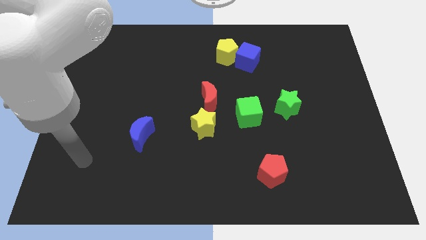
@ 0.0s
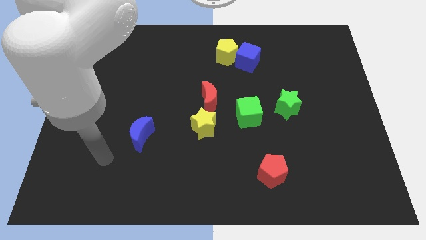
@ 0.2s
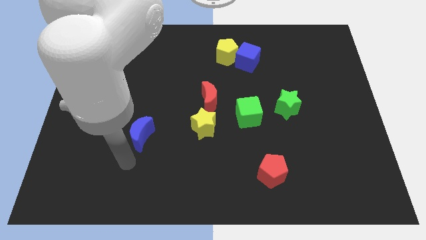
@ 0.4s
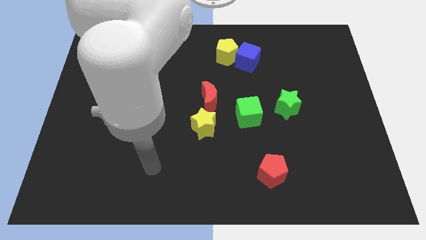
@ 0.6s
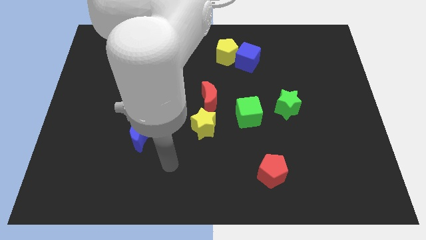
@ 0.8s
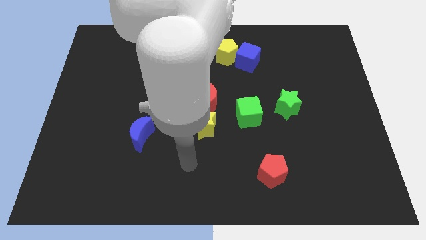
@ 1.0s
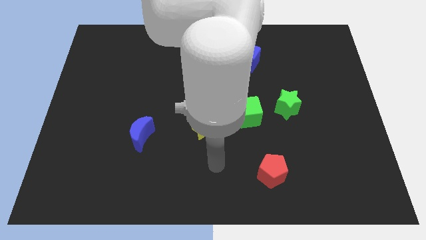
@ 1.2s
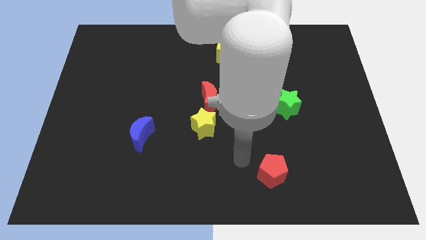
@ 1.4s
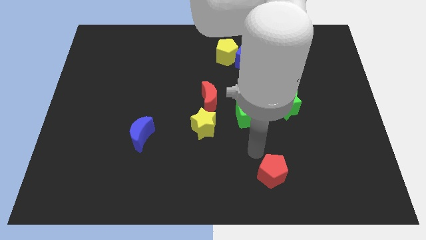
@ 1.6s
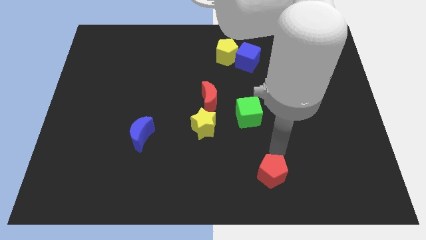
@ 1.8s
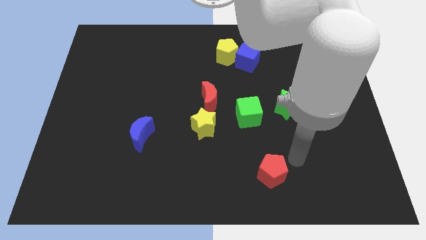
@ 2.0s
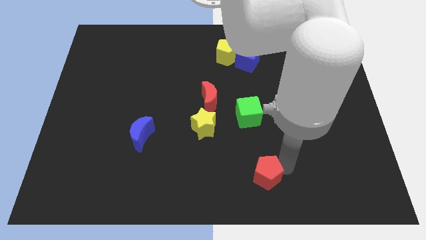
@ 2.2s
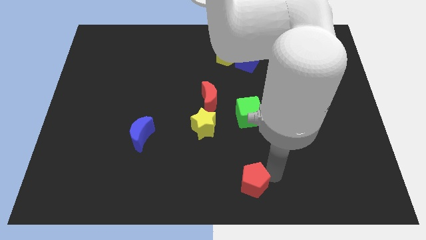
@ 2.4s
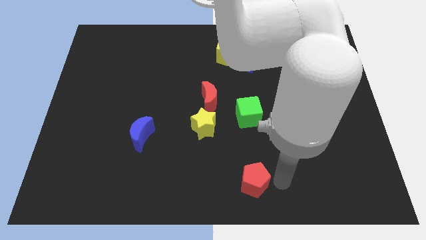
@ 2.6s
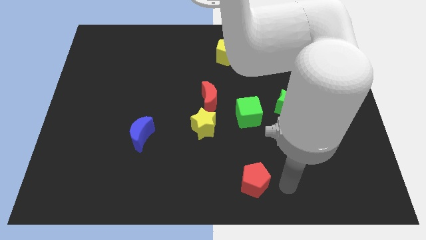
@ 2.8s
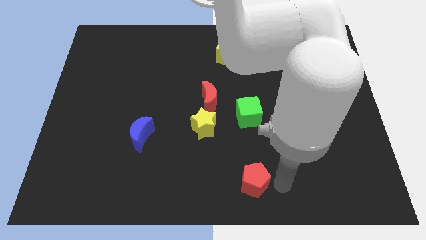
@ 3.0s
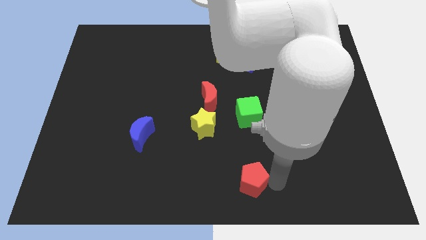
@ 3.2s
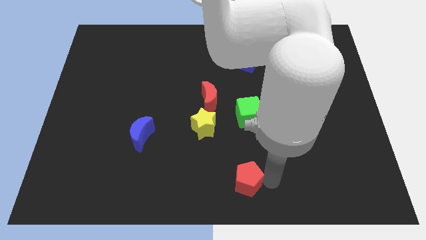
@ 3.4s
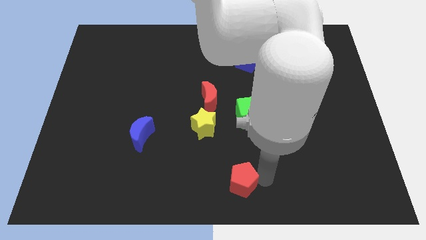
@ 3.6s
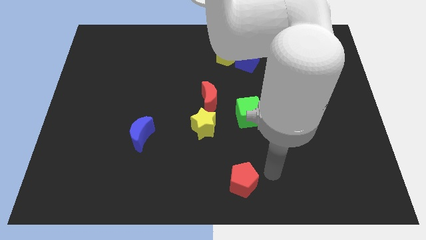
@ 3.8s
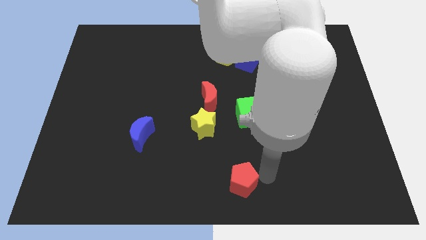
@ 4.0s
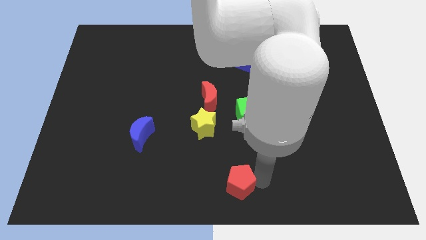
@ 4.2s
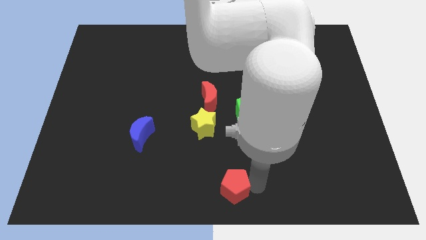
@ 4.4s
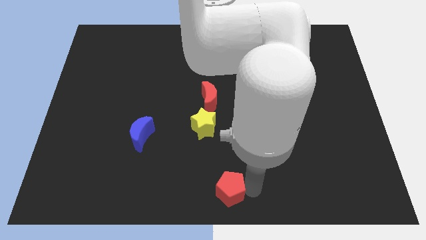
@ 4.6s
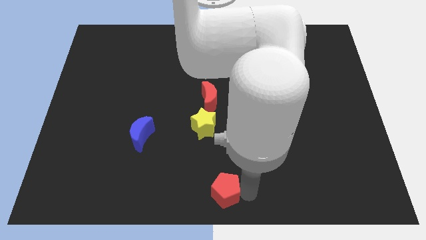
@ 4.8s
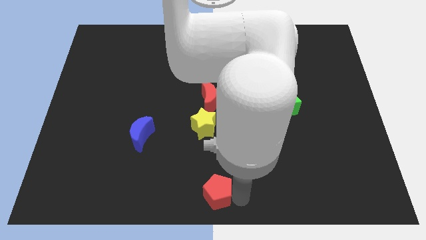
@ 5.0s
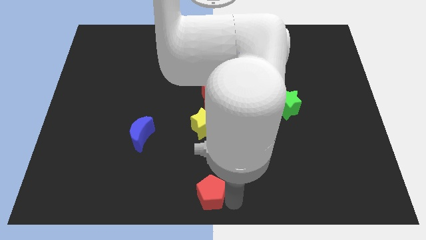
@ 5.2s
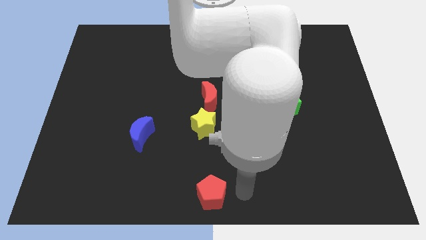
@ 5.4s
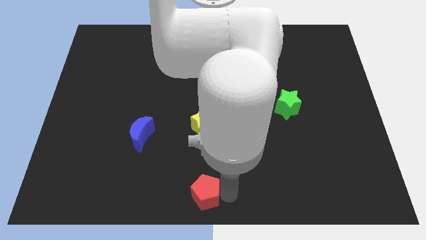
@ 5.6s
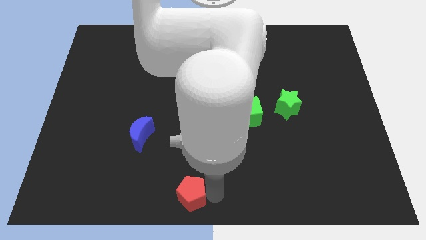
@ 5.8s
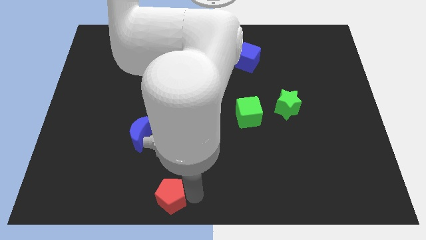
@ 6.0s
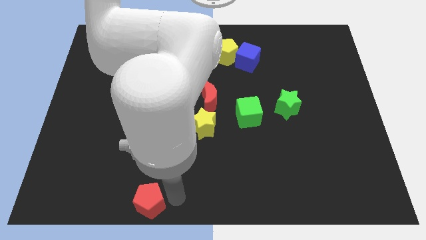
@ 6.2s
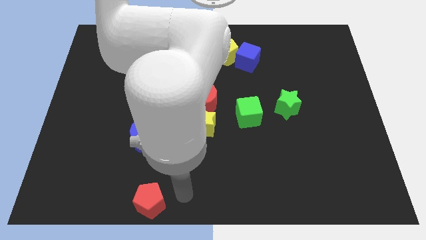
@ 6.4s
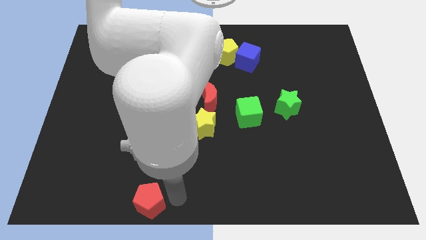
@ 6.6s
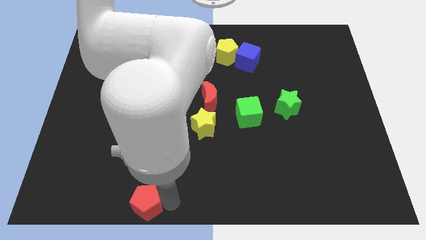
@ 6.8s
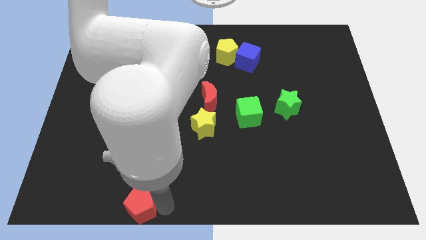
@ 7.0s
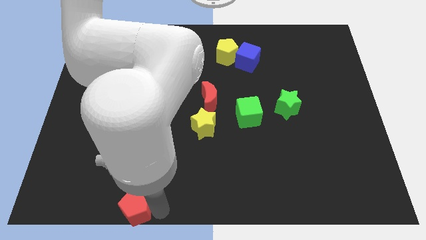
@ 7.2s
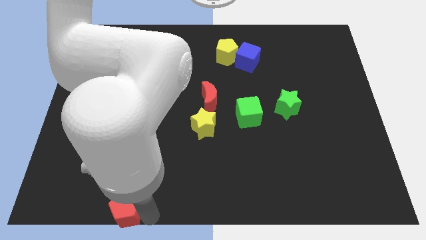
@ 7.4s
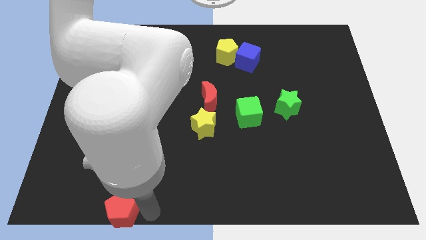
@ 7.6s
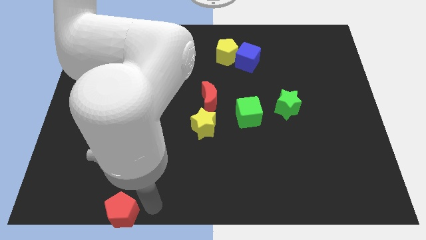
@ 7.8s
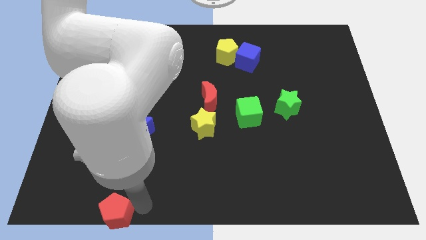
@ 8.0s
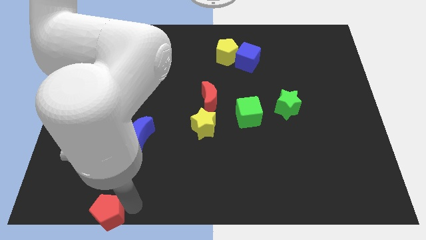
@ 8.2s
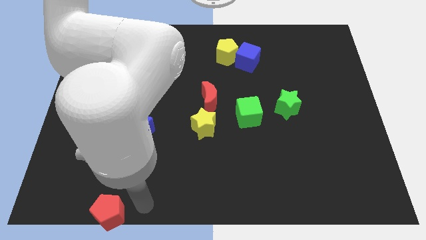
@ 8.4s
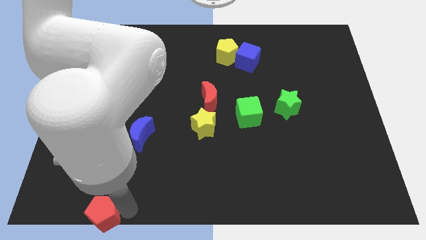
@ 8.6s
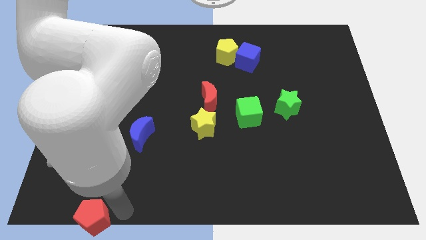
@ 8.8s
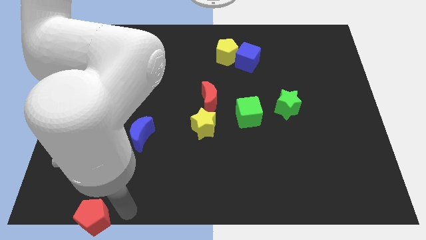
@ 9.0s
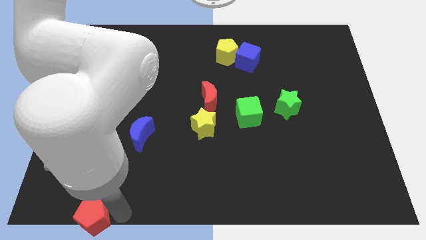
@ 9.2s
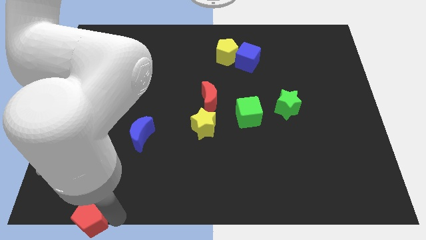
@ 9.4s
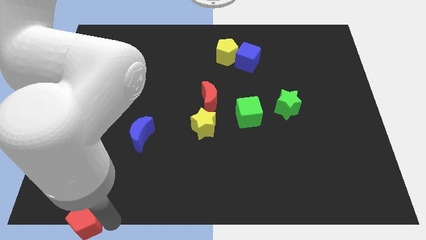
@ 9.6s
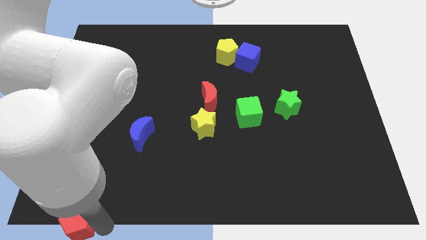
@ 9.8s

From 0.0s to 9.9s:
slide the red pentagon to the bottom left of the board

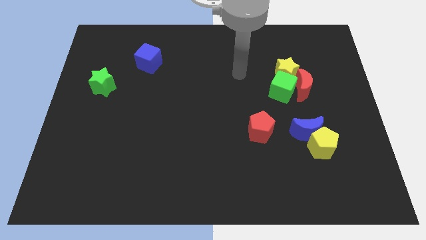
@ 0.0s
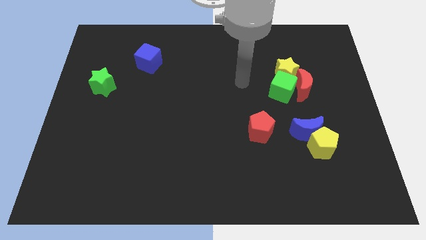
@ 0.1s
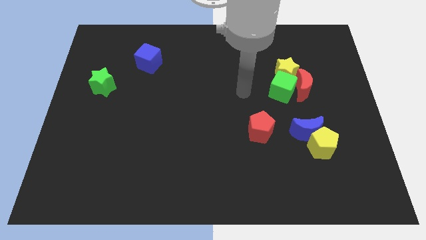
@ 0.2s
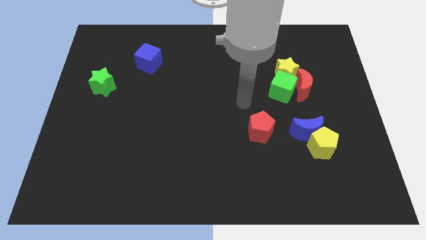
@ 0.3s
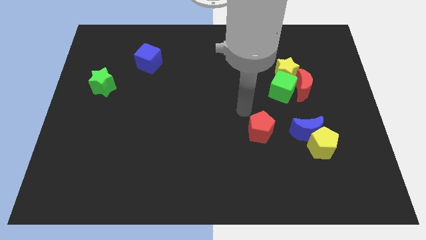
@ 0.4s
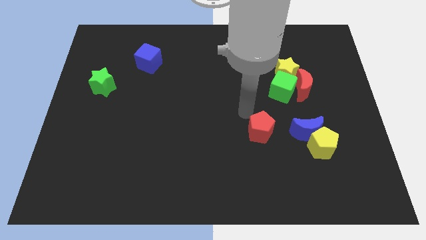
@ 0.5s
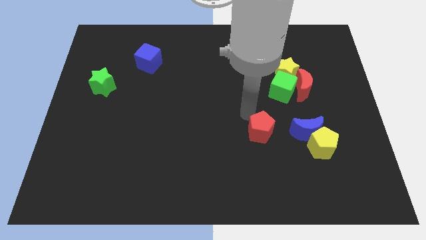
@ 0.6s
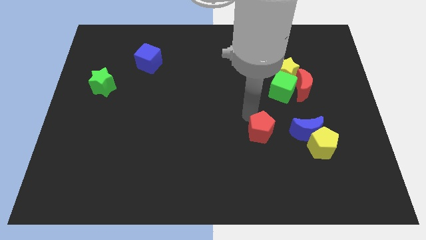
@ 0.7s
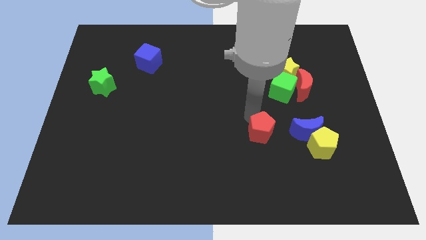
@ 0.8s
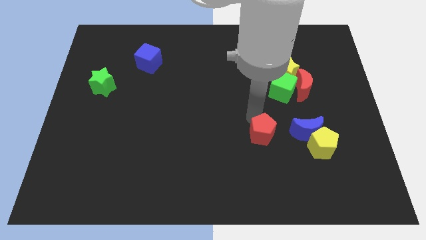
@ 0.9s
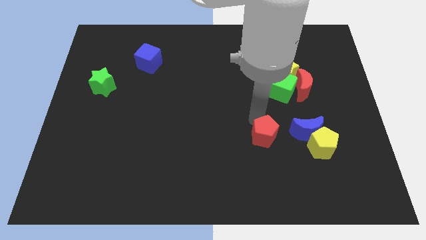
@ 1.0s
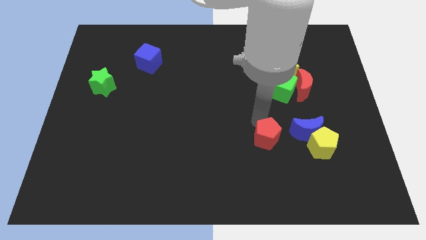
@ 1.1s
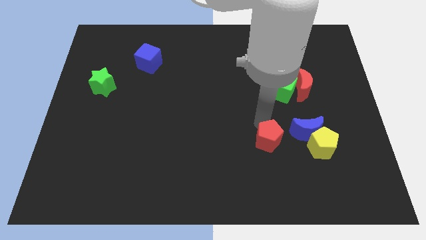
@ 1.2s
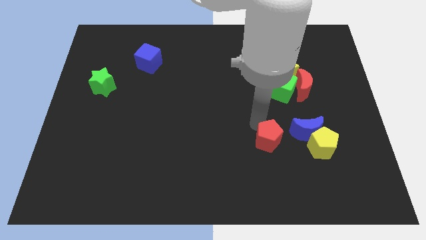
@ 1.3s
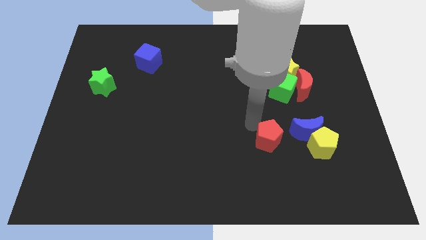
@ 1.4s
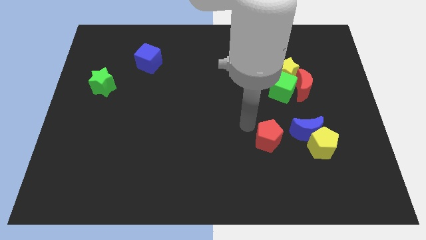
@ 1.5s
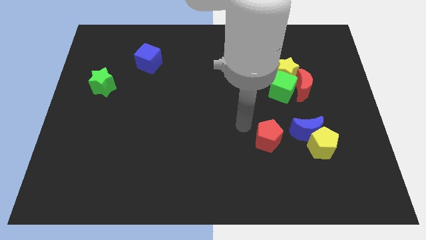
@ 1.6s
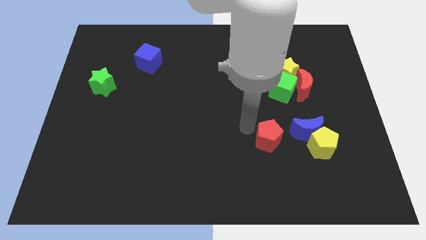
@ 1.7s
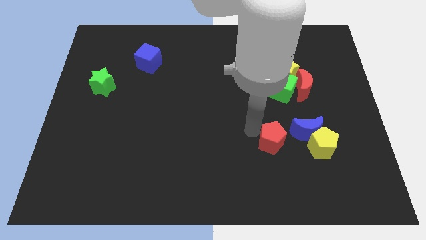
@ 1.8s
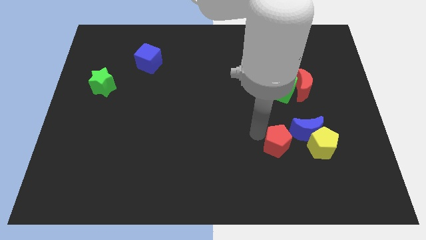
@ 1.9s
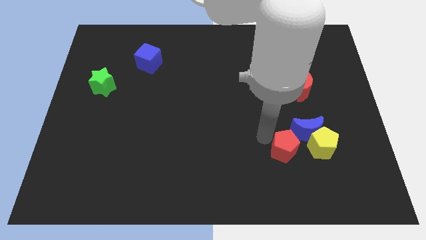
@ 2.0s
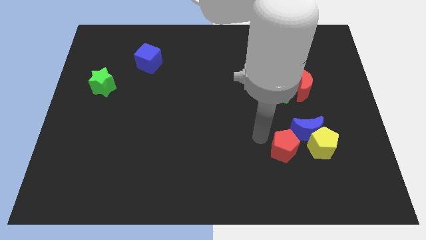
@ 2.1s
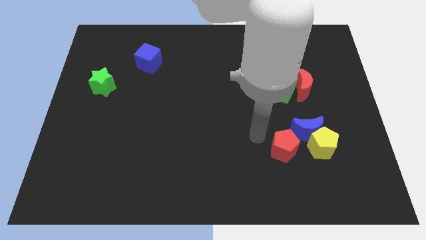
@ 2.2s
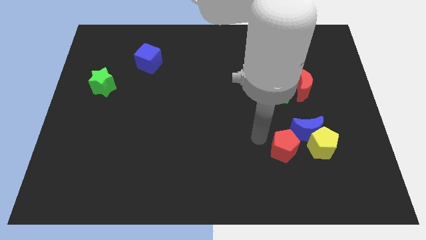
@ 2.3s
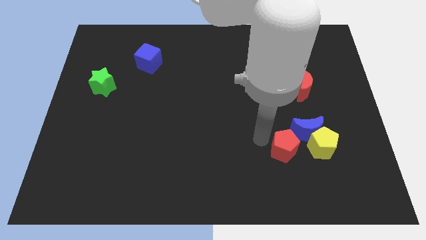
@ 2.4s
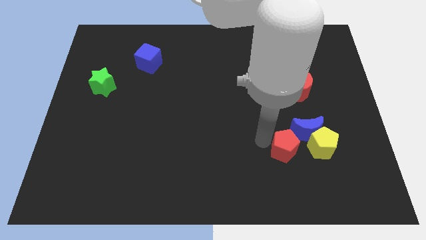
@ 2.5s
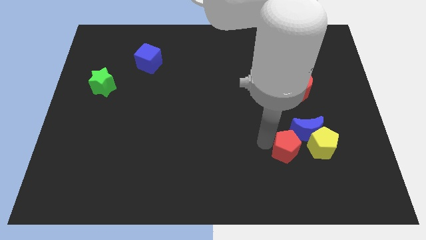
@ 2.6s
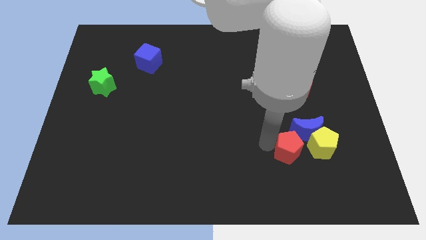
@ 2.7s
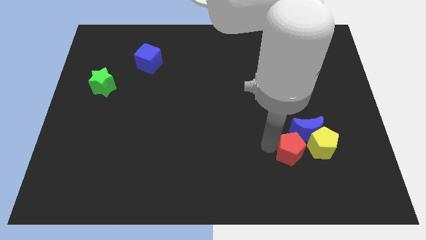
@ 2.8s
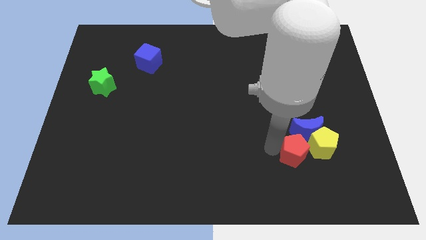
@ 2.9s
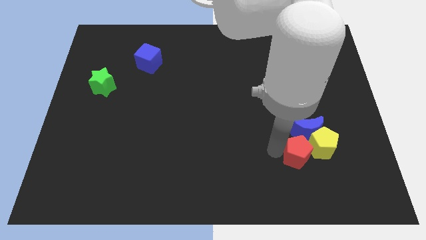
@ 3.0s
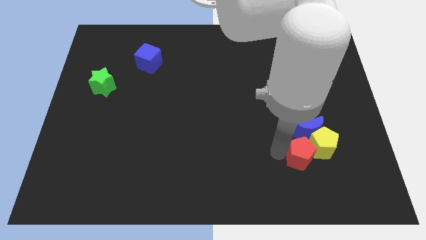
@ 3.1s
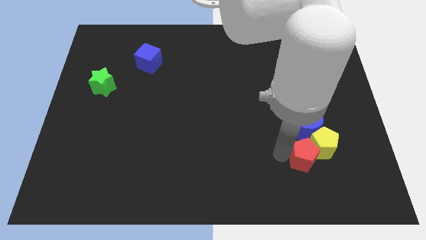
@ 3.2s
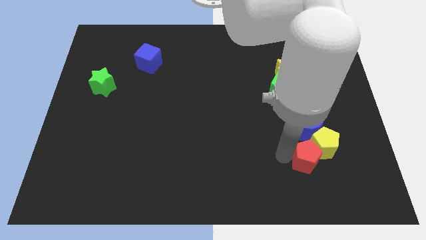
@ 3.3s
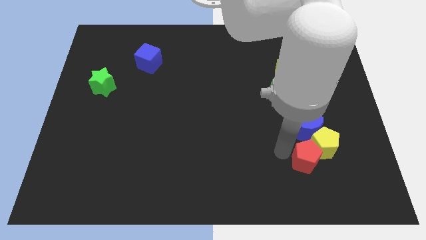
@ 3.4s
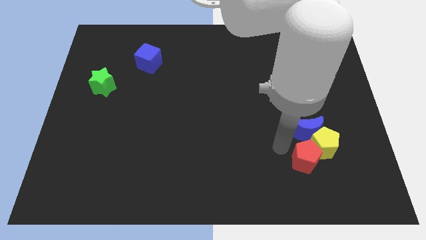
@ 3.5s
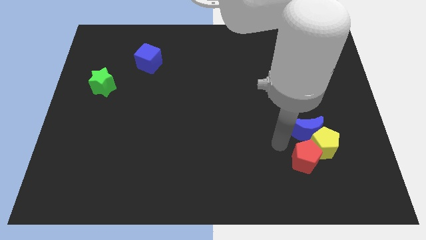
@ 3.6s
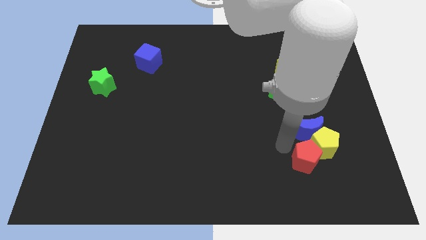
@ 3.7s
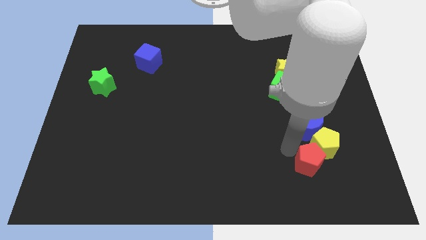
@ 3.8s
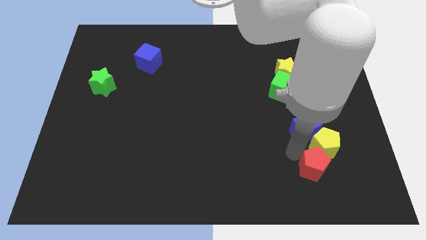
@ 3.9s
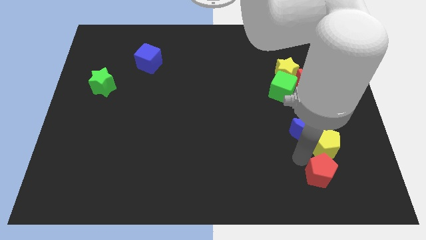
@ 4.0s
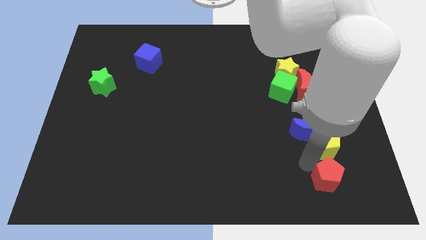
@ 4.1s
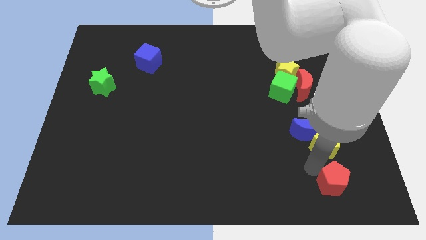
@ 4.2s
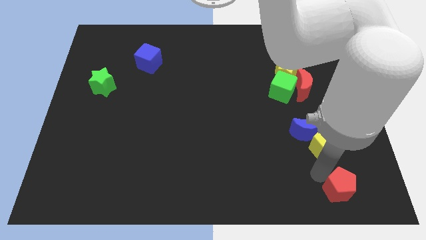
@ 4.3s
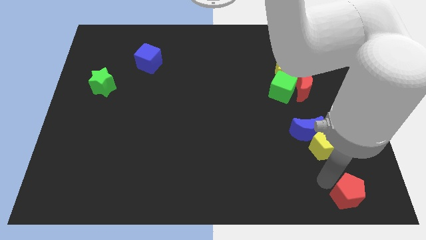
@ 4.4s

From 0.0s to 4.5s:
push the red pentagon to the bottom right
